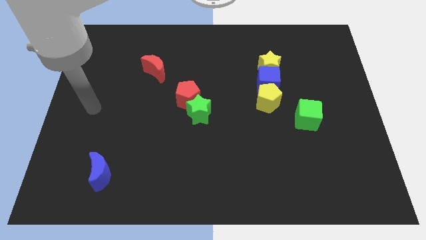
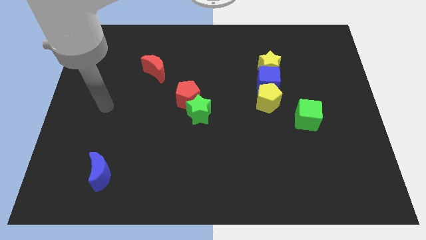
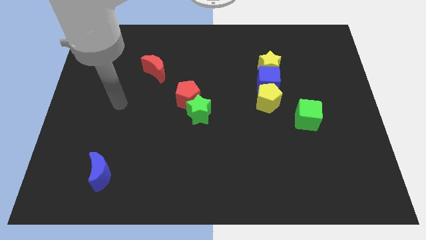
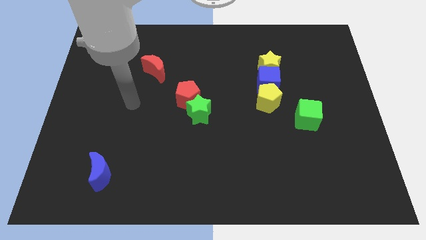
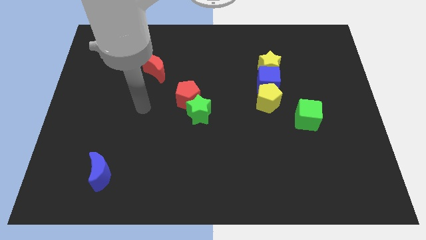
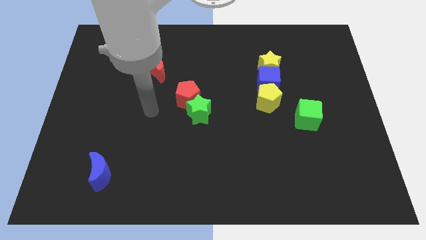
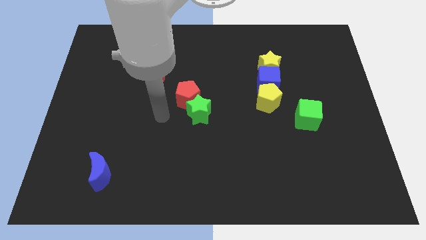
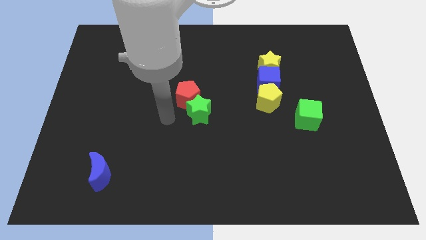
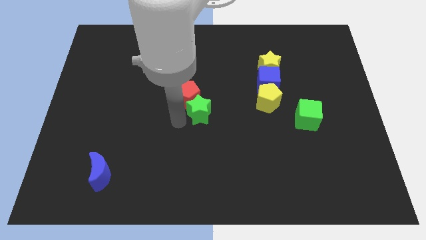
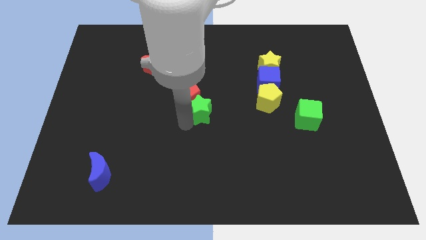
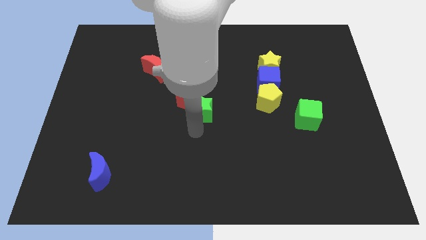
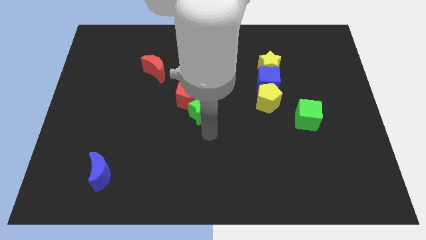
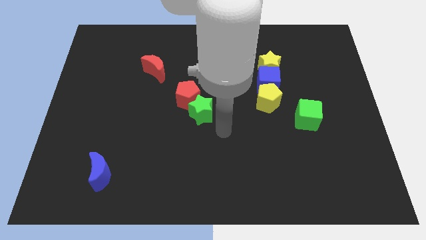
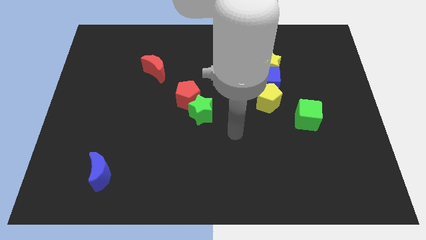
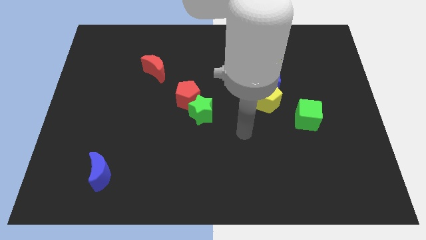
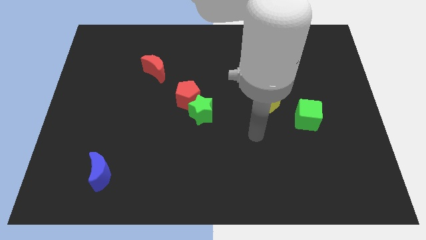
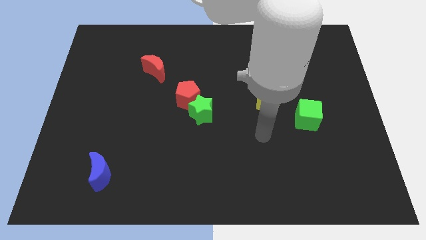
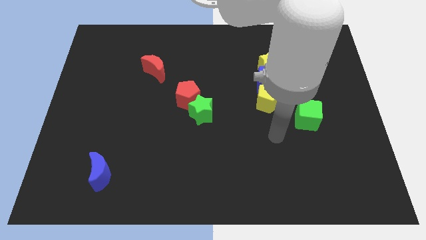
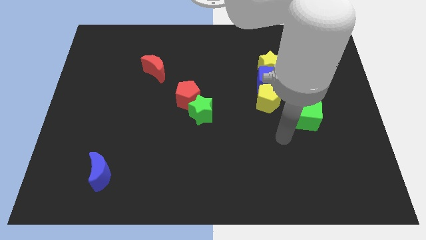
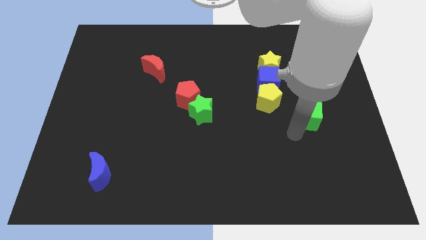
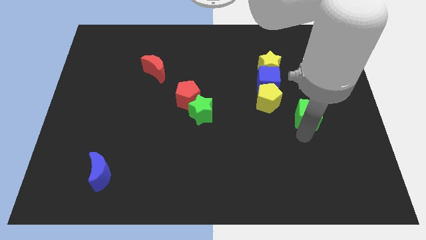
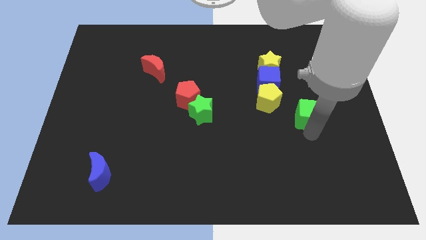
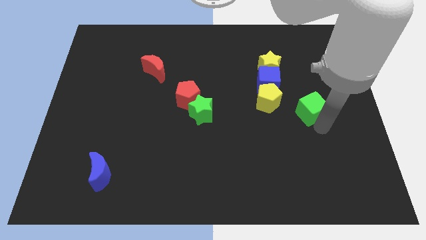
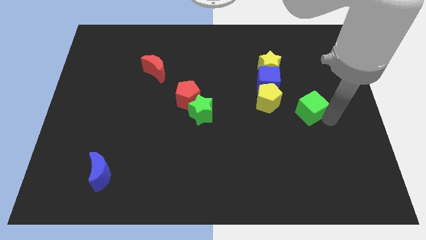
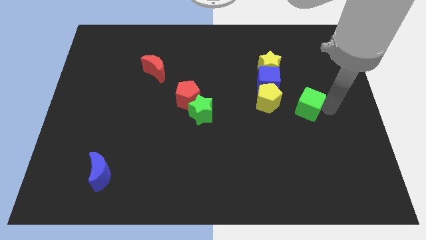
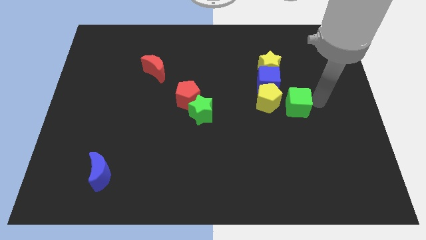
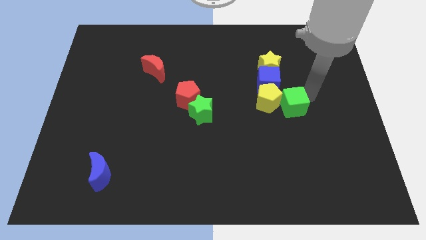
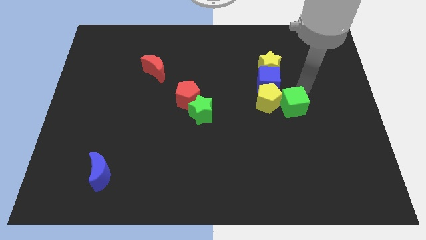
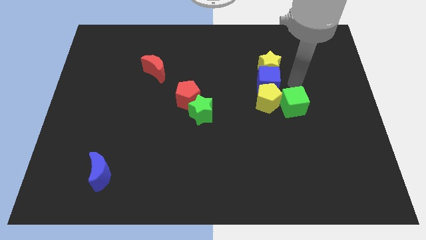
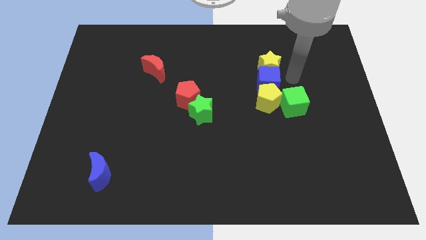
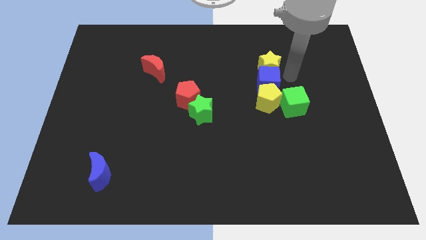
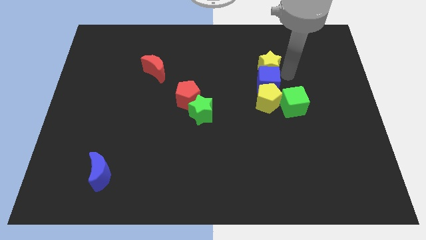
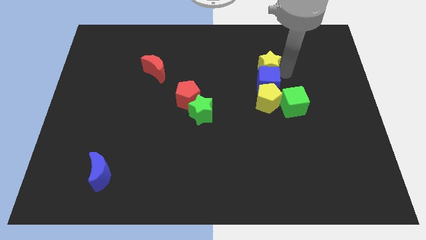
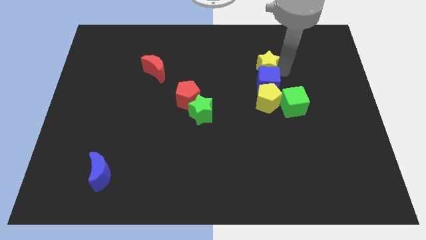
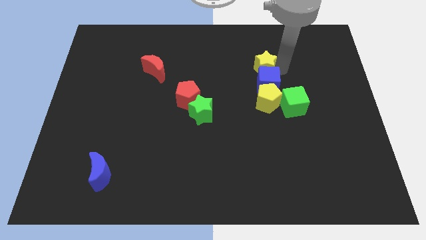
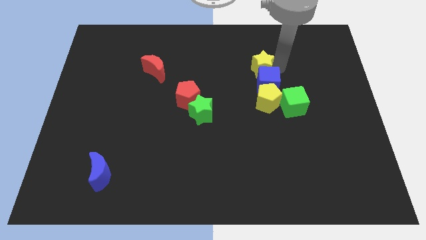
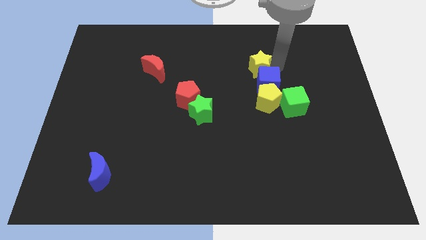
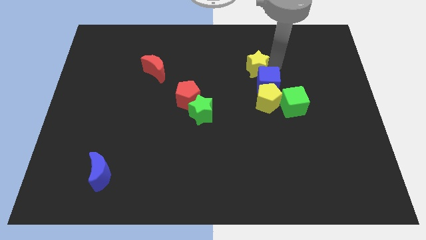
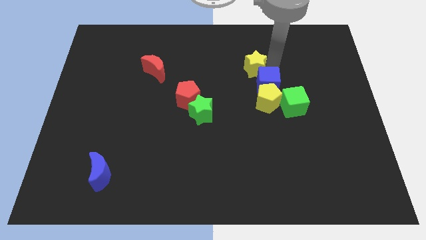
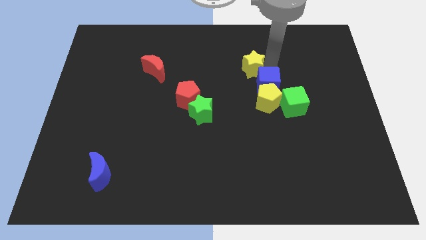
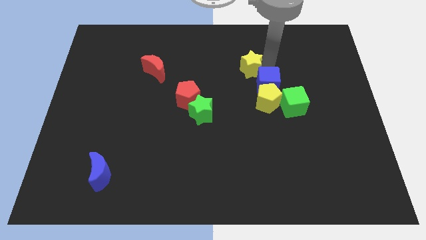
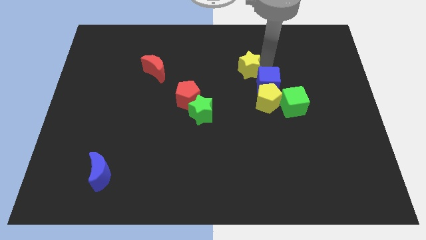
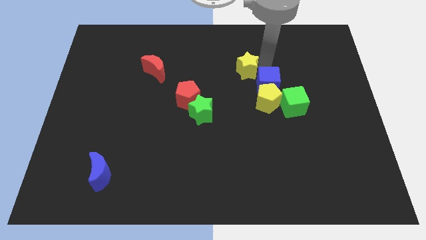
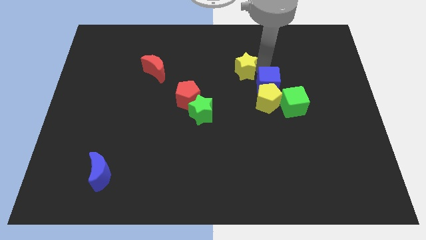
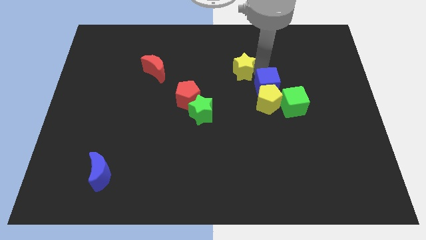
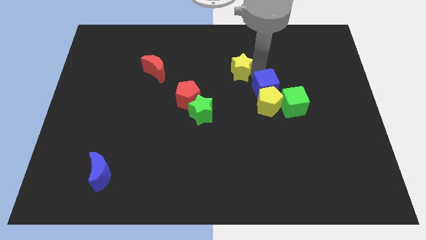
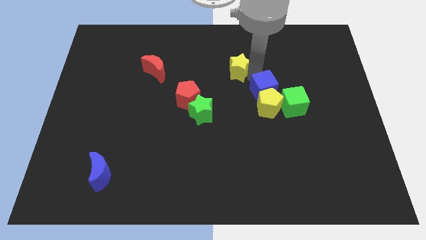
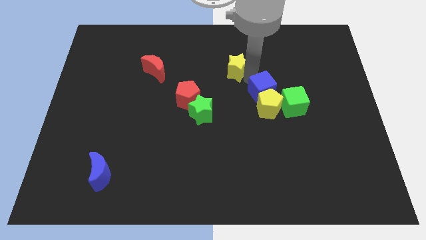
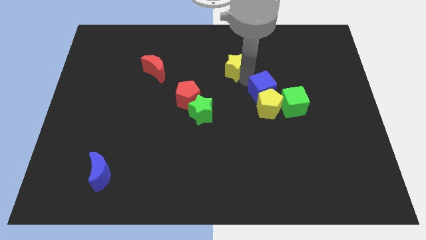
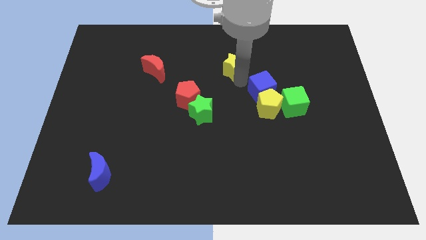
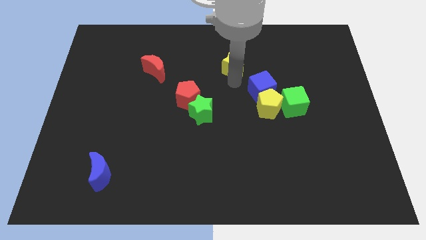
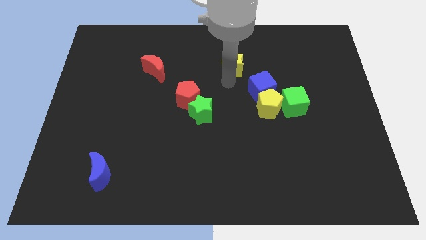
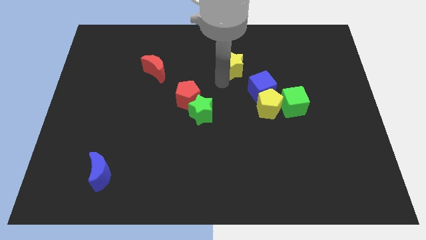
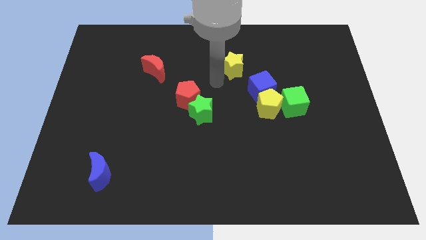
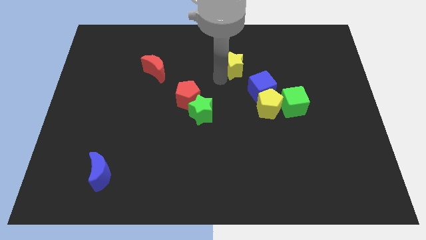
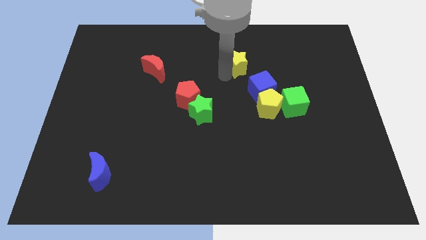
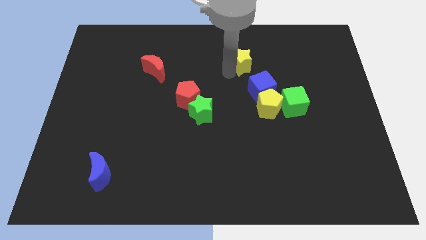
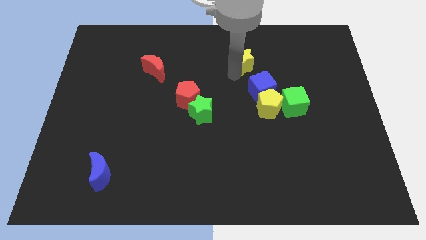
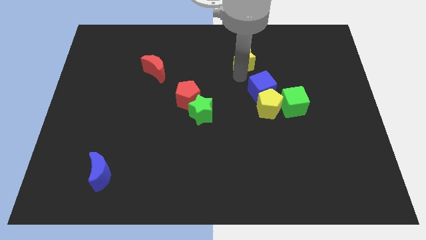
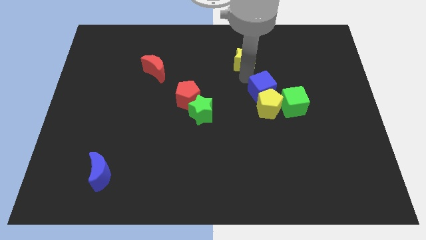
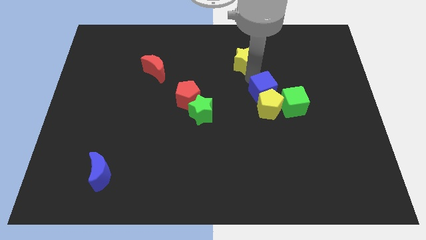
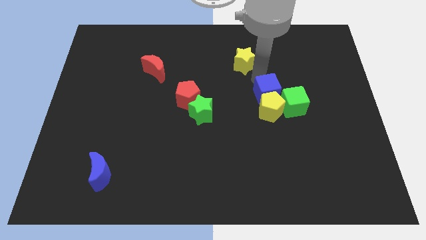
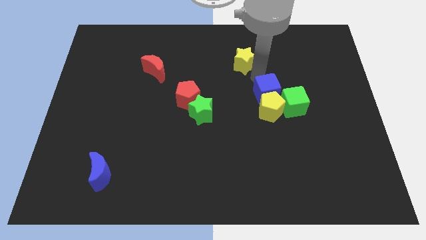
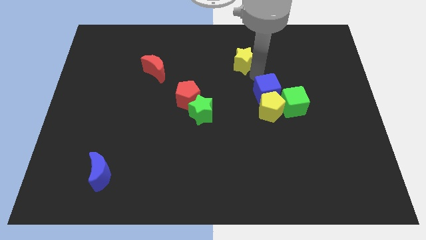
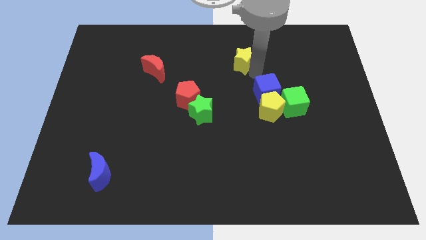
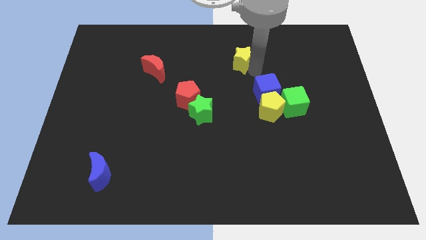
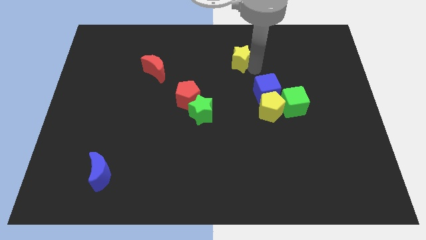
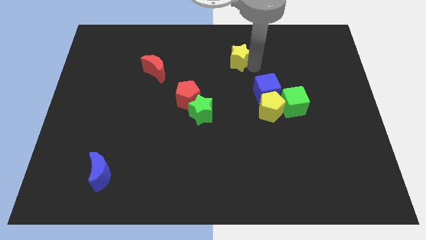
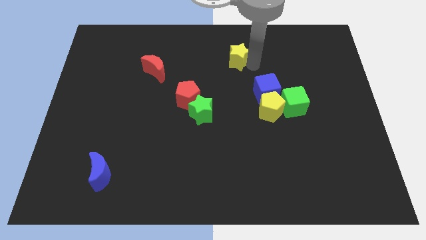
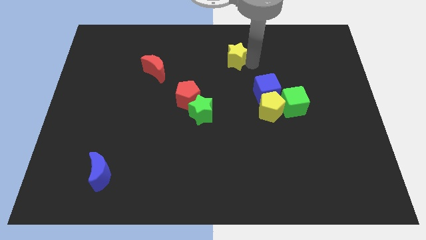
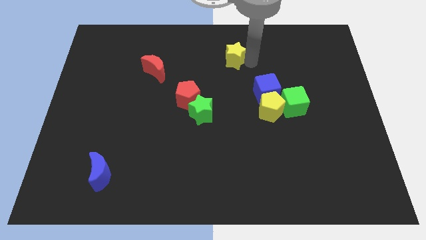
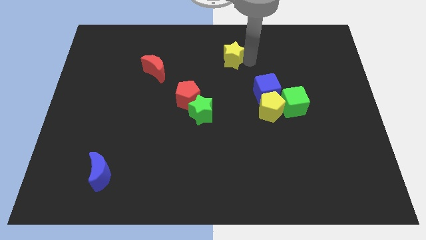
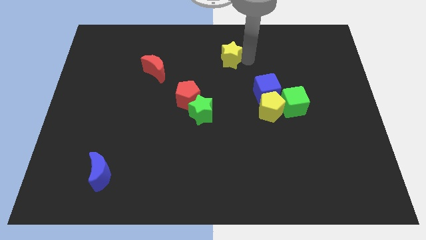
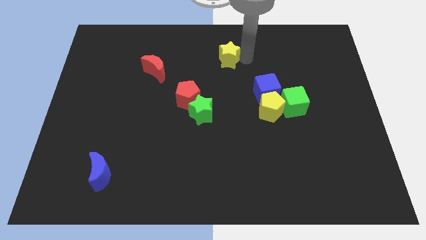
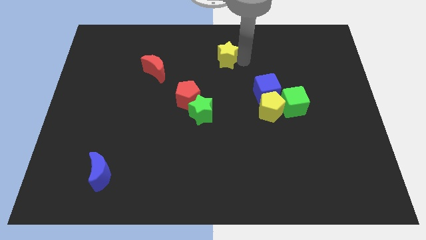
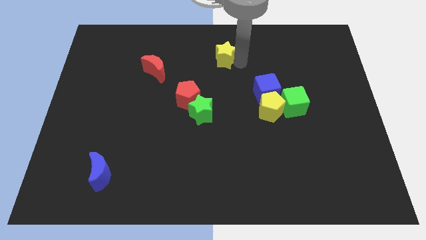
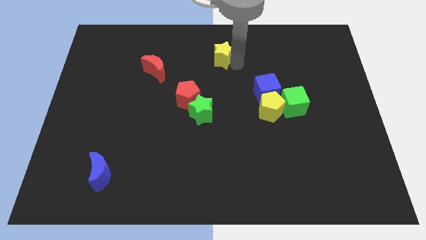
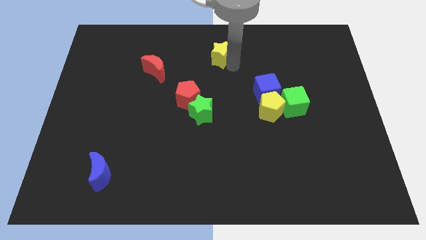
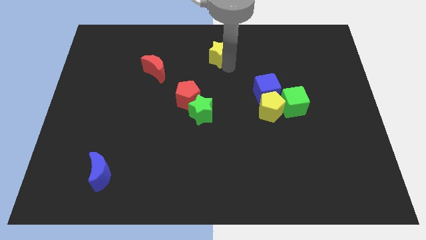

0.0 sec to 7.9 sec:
slide the yellow star to the top
